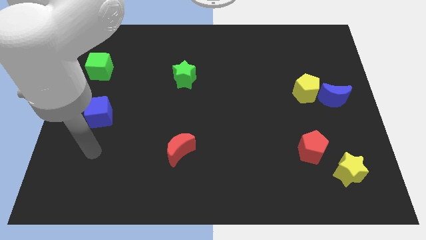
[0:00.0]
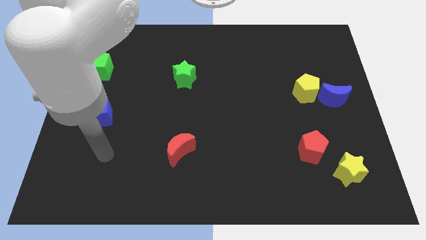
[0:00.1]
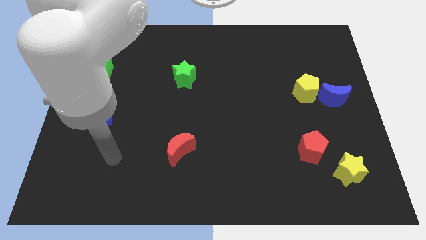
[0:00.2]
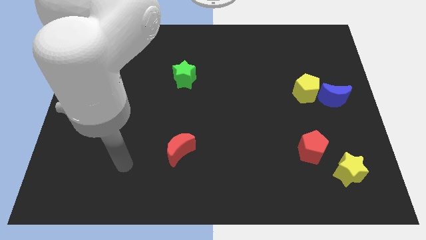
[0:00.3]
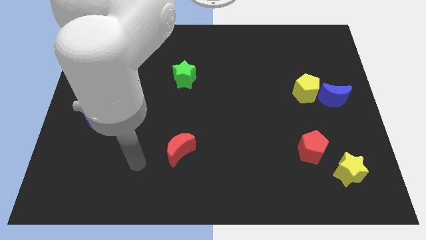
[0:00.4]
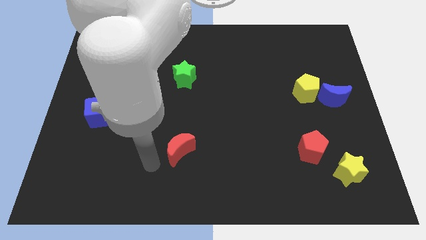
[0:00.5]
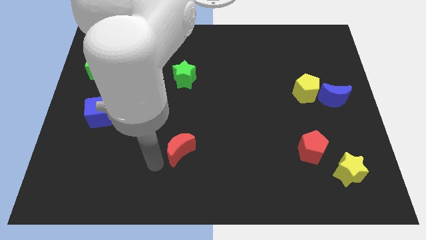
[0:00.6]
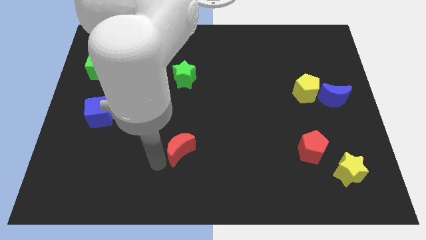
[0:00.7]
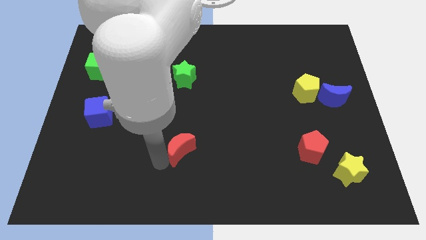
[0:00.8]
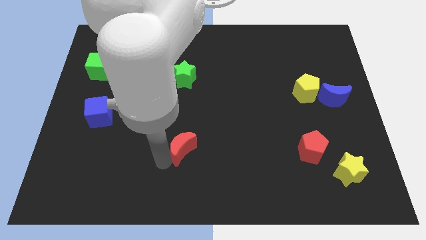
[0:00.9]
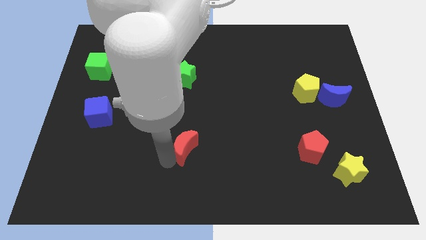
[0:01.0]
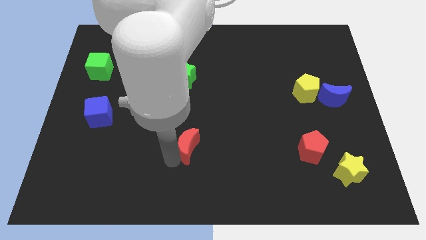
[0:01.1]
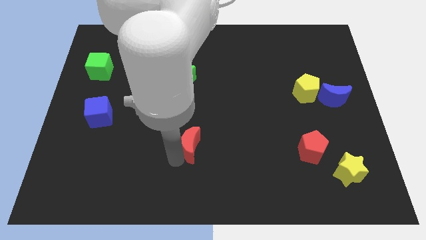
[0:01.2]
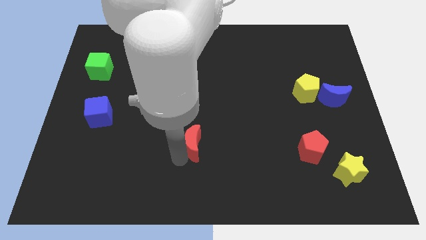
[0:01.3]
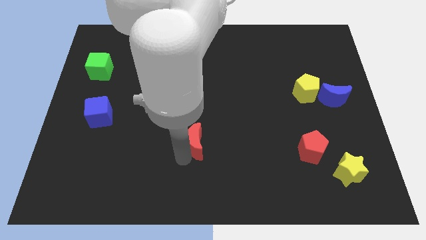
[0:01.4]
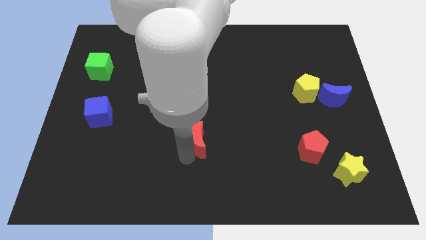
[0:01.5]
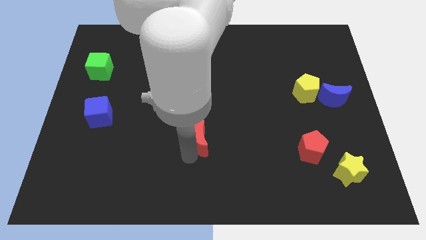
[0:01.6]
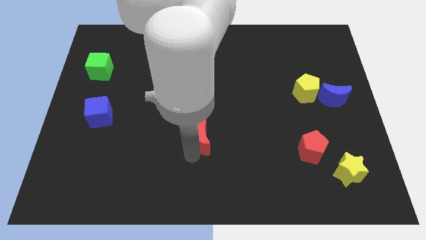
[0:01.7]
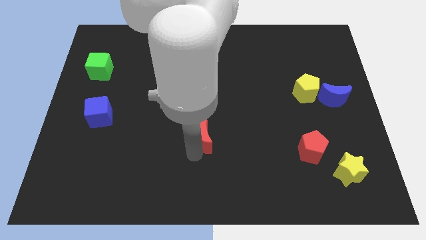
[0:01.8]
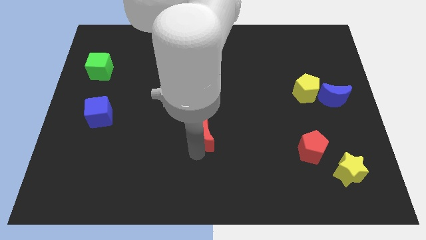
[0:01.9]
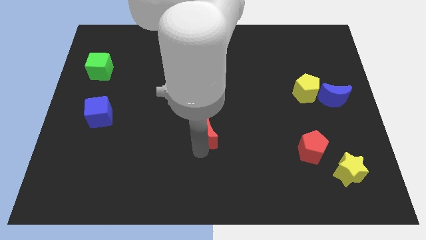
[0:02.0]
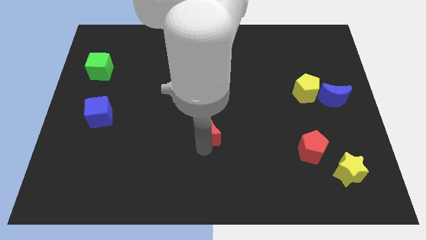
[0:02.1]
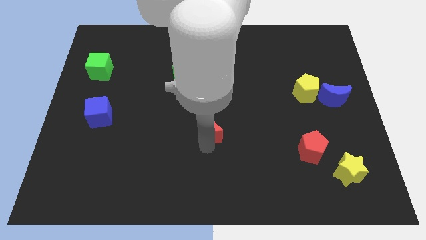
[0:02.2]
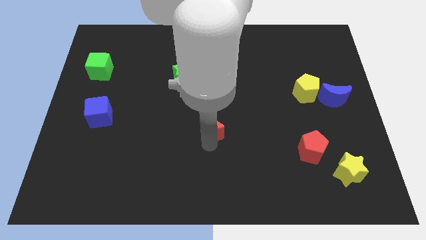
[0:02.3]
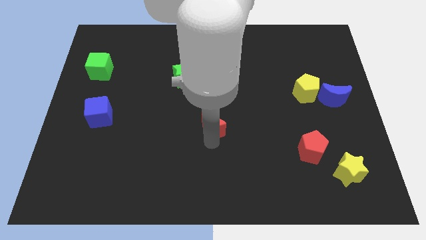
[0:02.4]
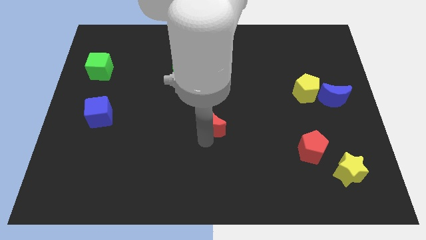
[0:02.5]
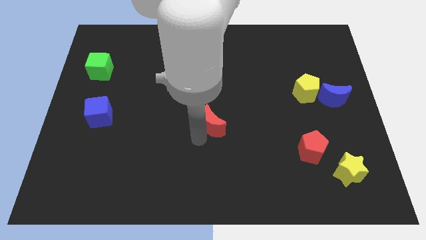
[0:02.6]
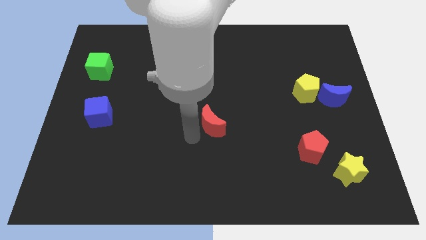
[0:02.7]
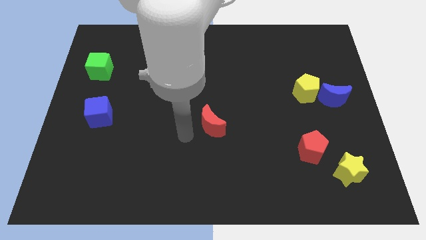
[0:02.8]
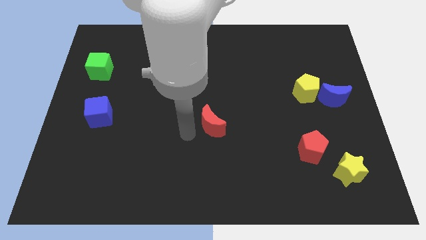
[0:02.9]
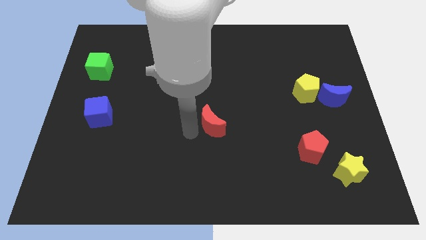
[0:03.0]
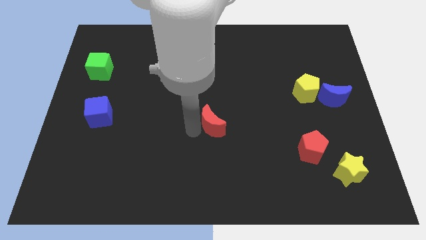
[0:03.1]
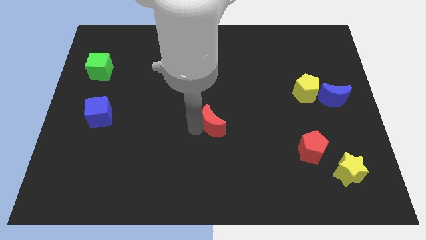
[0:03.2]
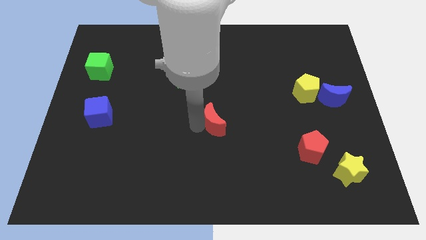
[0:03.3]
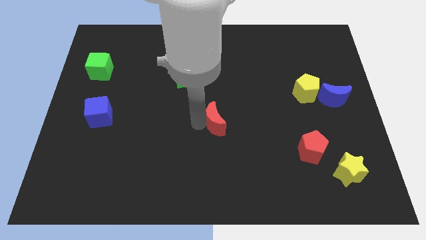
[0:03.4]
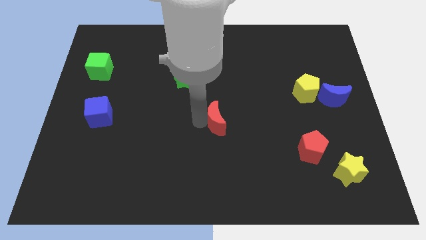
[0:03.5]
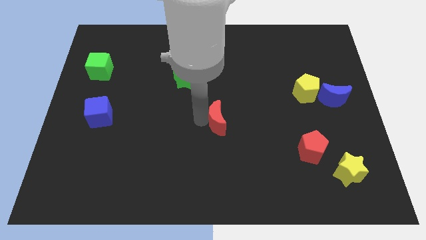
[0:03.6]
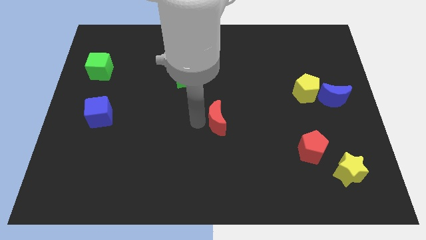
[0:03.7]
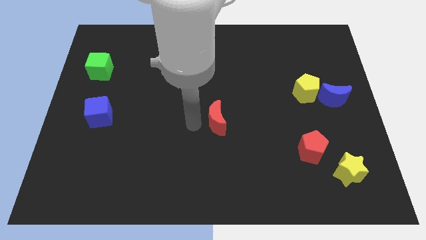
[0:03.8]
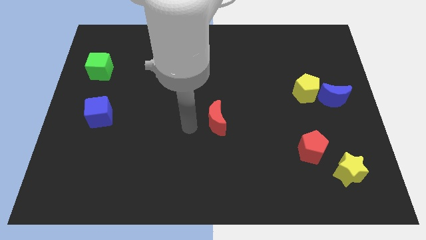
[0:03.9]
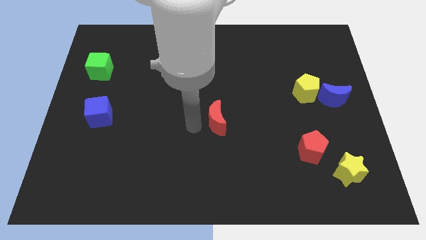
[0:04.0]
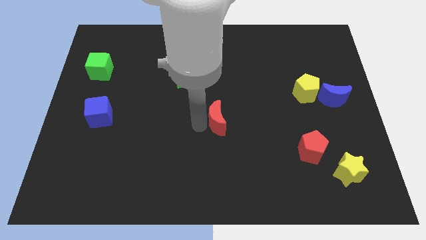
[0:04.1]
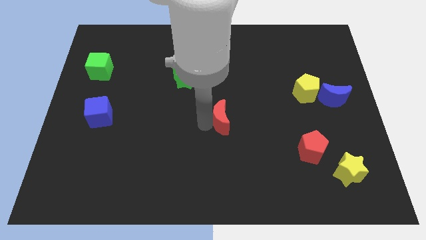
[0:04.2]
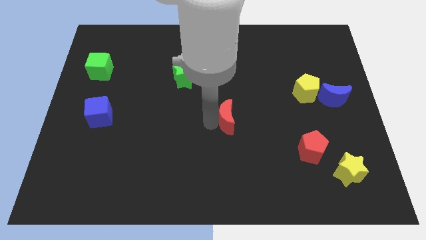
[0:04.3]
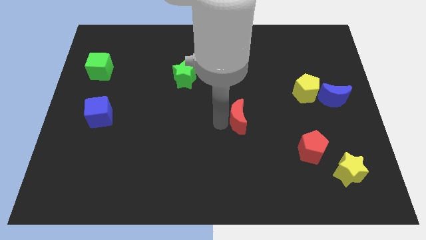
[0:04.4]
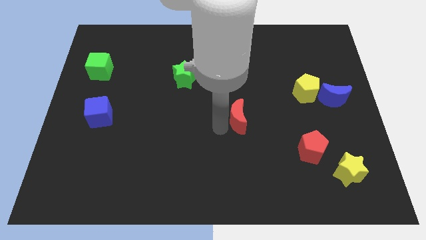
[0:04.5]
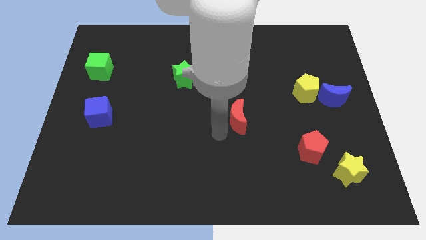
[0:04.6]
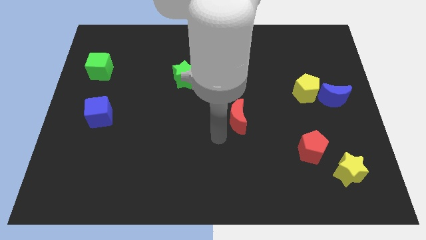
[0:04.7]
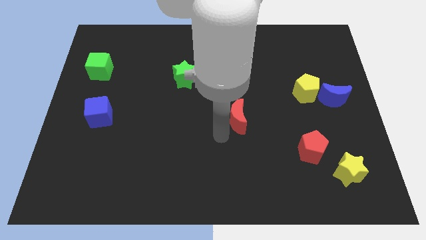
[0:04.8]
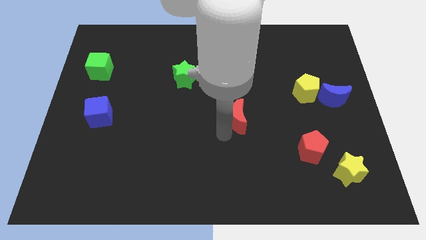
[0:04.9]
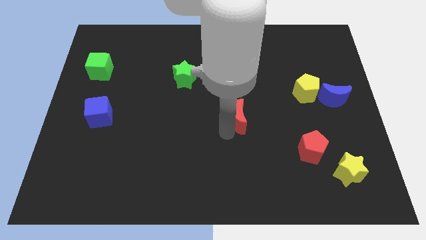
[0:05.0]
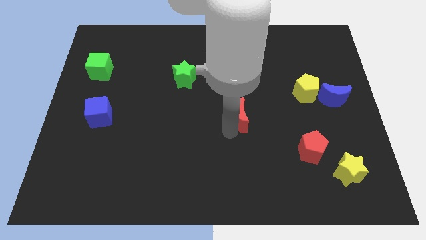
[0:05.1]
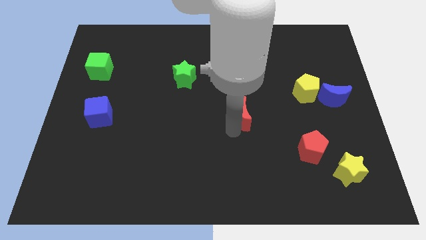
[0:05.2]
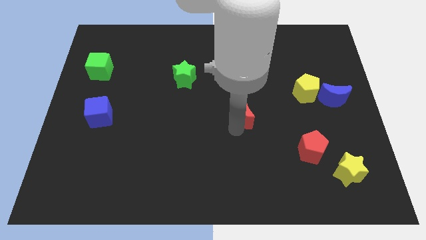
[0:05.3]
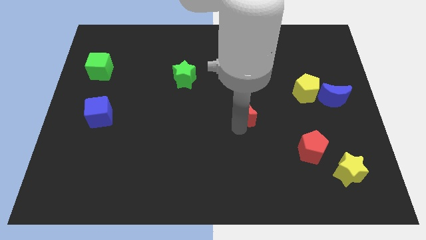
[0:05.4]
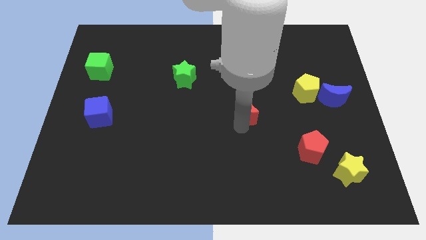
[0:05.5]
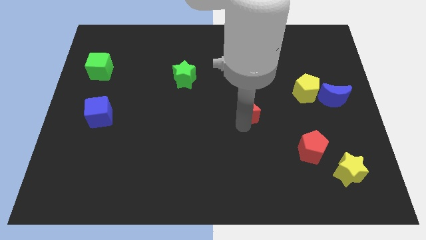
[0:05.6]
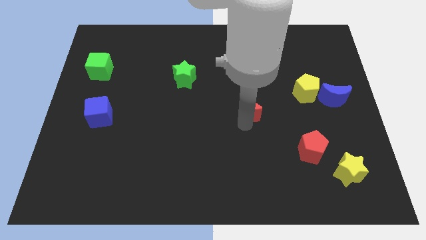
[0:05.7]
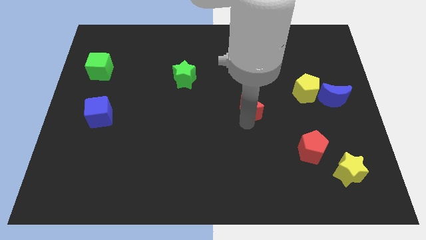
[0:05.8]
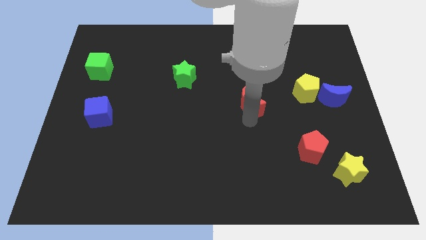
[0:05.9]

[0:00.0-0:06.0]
slide the red moon up and then to the right

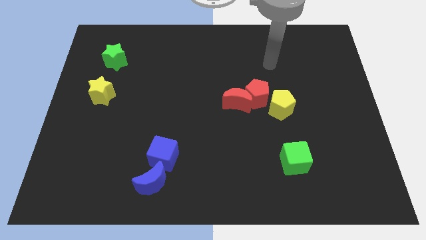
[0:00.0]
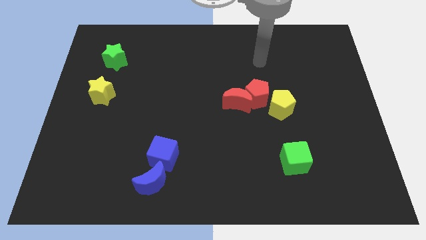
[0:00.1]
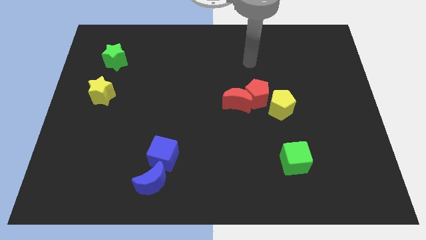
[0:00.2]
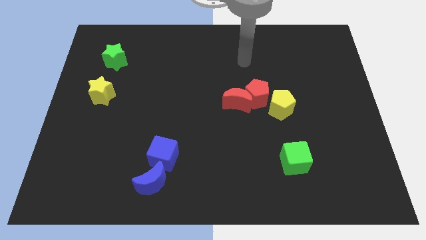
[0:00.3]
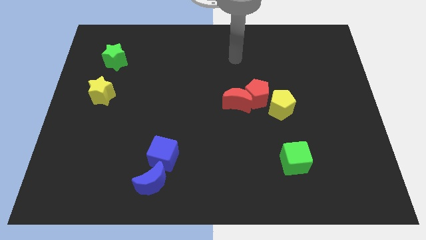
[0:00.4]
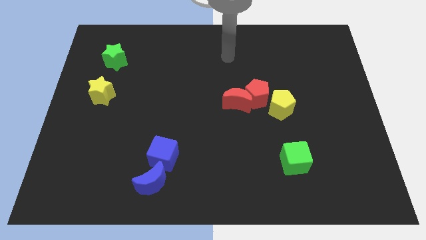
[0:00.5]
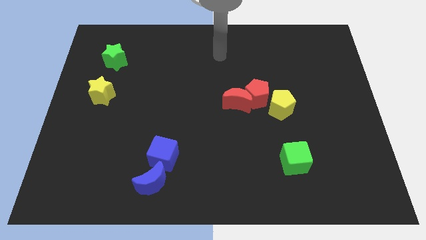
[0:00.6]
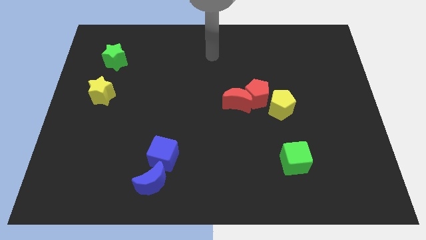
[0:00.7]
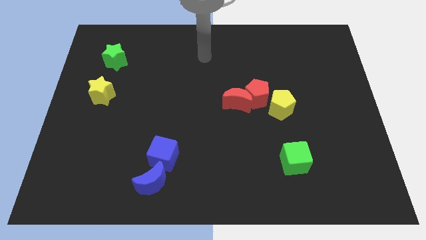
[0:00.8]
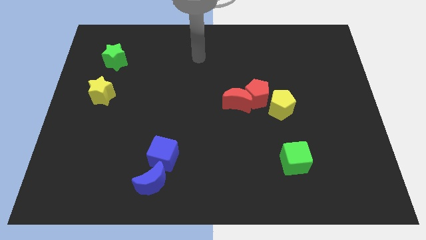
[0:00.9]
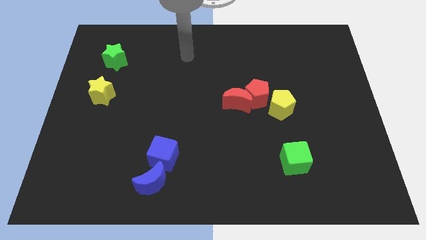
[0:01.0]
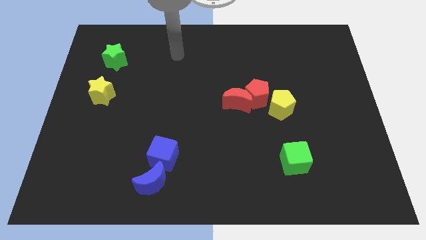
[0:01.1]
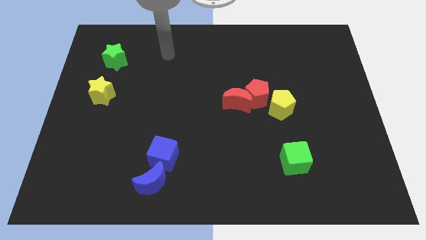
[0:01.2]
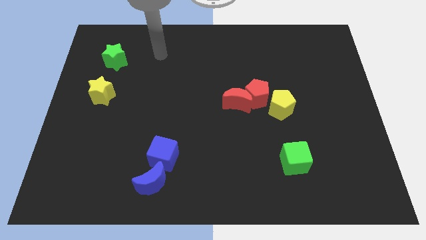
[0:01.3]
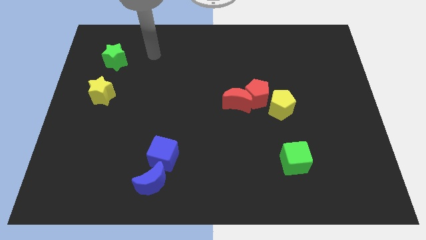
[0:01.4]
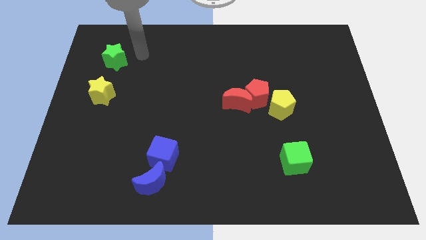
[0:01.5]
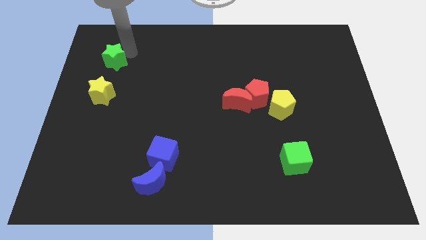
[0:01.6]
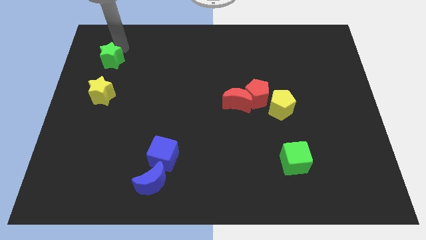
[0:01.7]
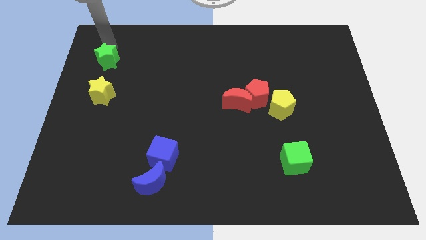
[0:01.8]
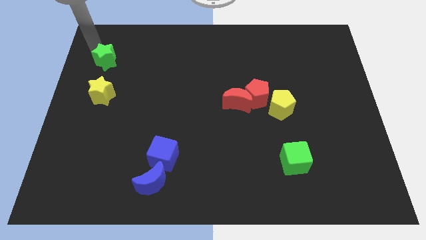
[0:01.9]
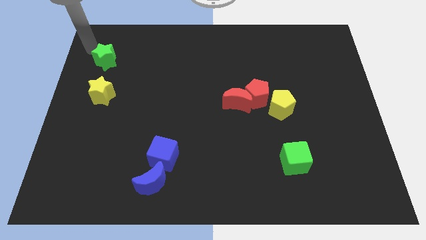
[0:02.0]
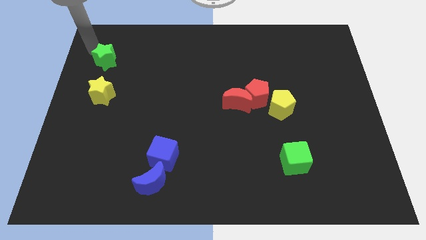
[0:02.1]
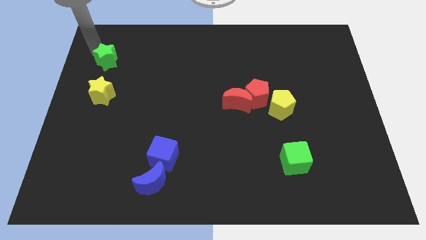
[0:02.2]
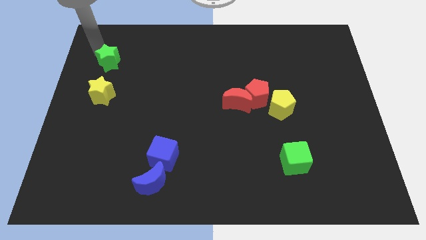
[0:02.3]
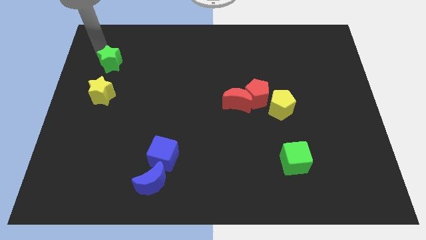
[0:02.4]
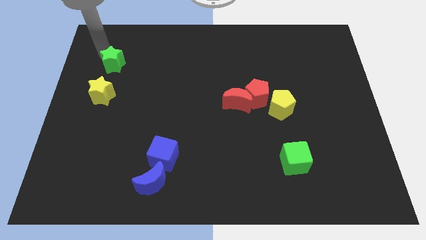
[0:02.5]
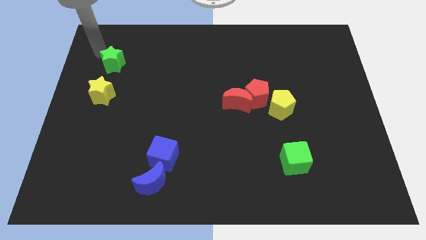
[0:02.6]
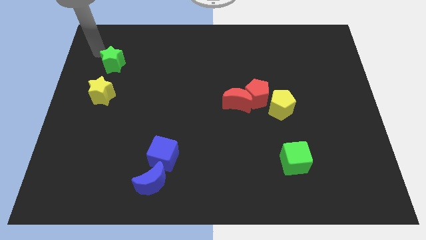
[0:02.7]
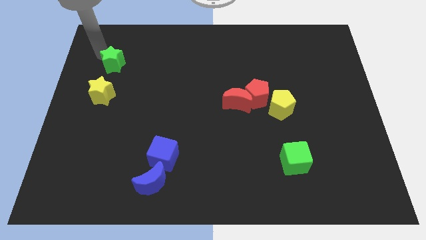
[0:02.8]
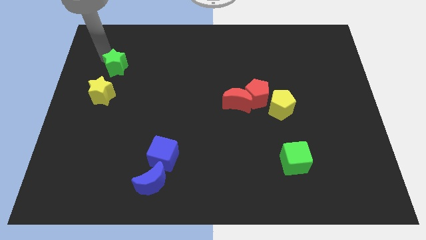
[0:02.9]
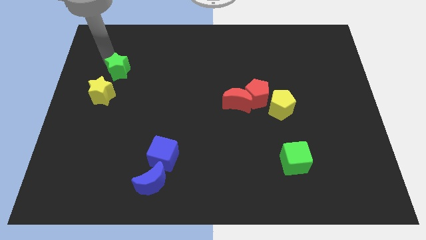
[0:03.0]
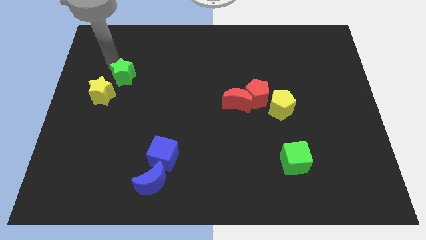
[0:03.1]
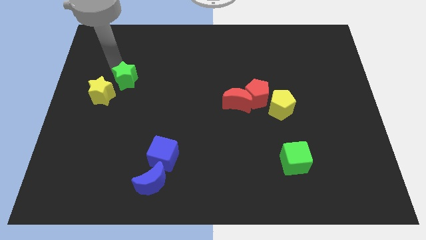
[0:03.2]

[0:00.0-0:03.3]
slide the green star down and to the right diagonally a little bit
